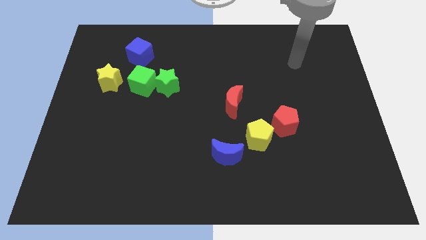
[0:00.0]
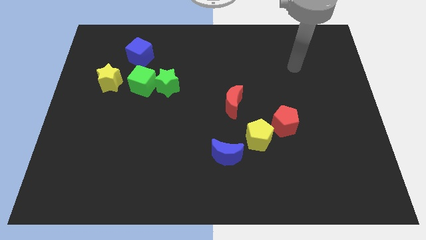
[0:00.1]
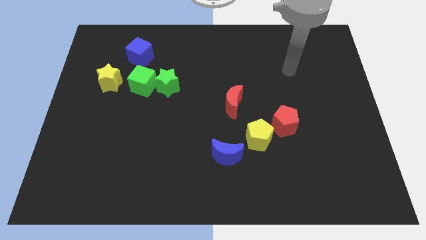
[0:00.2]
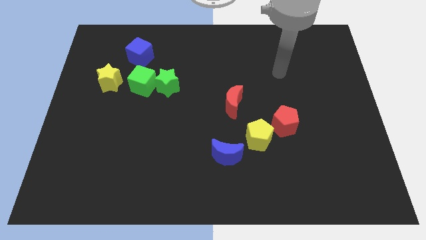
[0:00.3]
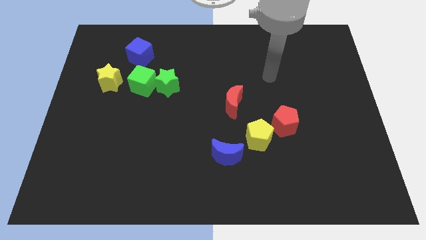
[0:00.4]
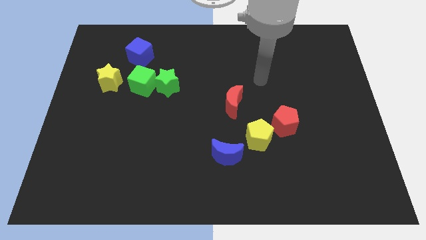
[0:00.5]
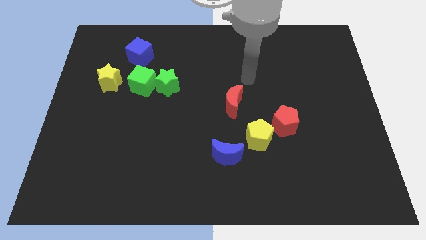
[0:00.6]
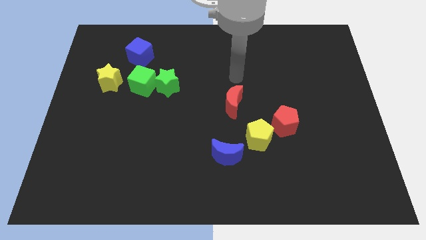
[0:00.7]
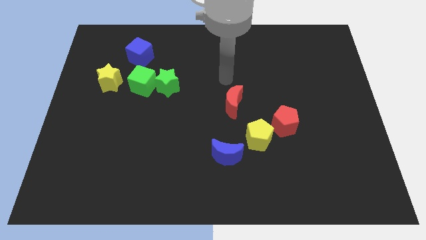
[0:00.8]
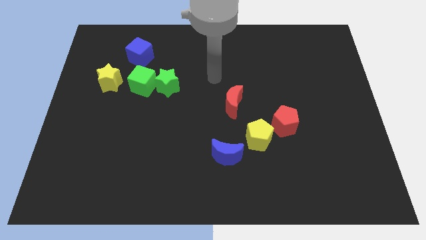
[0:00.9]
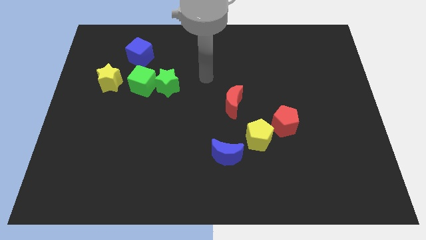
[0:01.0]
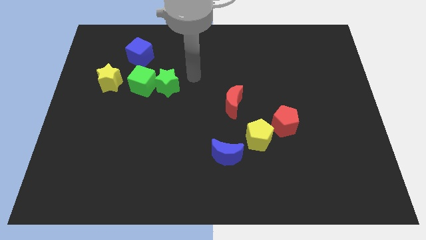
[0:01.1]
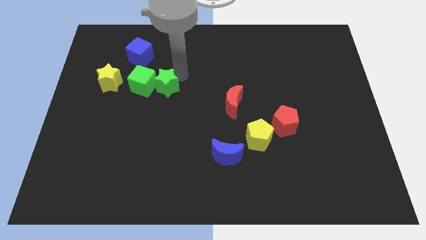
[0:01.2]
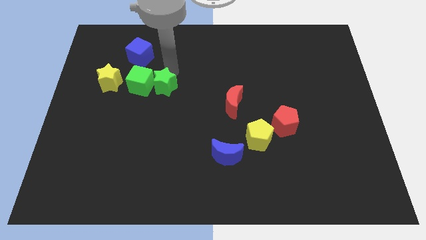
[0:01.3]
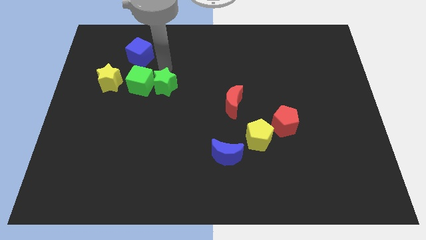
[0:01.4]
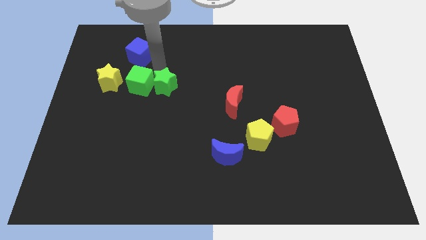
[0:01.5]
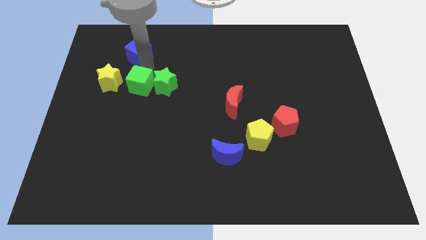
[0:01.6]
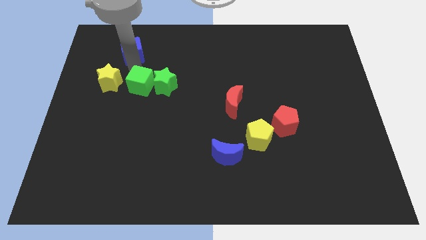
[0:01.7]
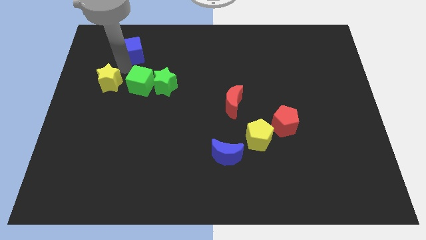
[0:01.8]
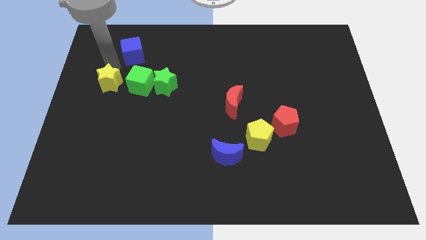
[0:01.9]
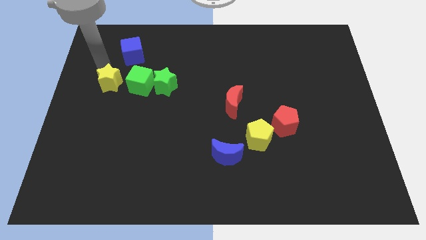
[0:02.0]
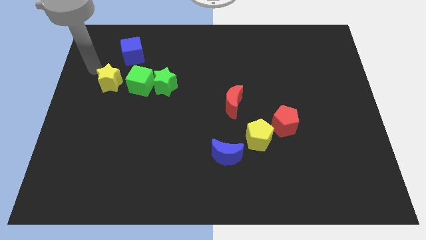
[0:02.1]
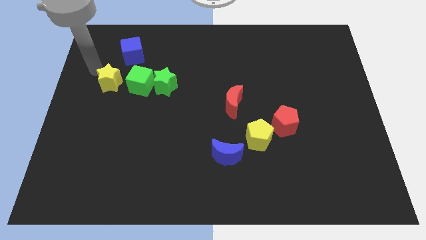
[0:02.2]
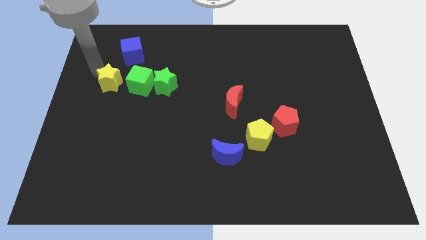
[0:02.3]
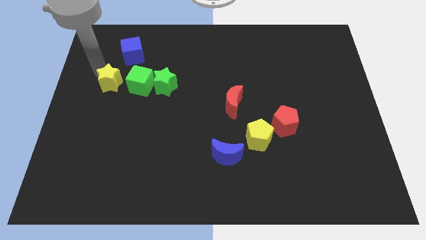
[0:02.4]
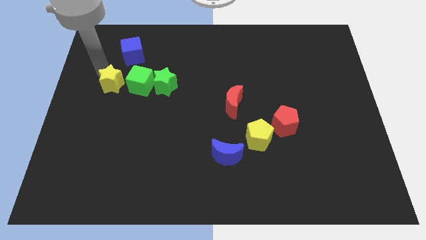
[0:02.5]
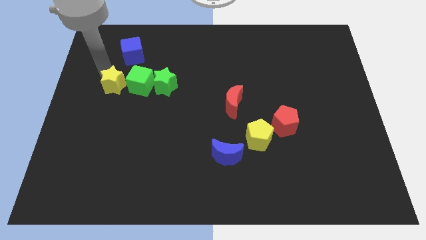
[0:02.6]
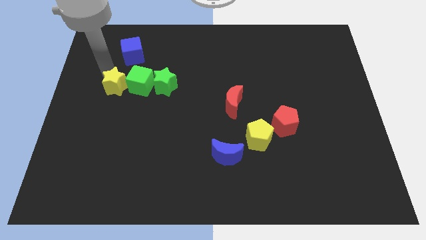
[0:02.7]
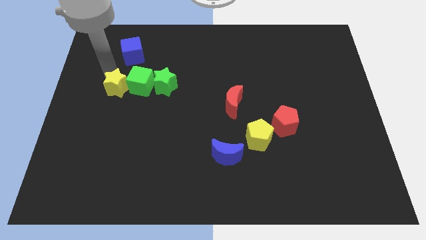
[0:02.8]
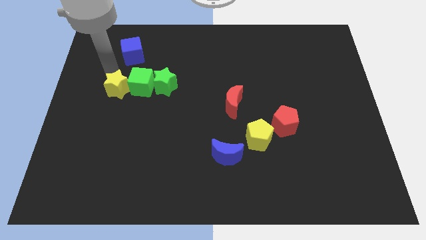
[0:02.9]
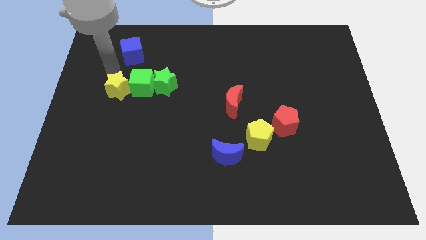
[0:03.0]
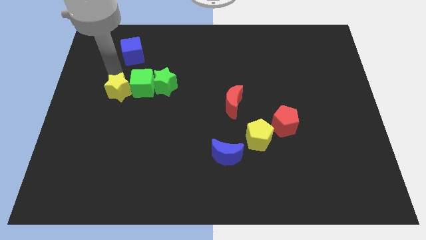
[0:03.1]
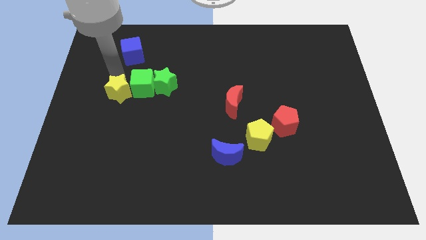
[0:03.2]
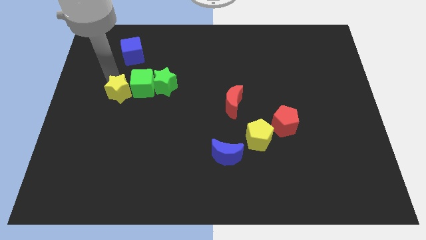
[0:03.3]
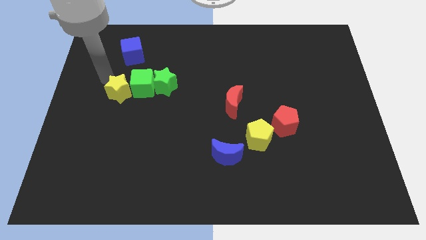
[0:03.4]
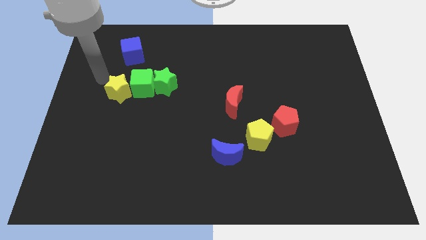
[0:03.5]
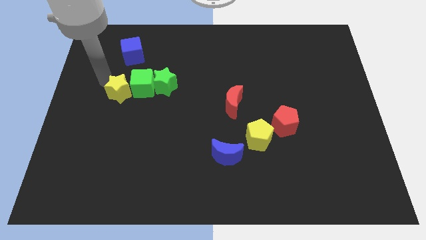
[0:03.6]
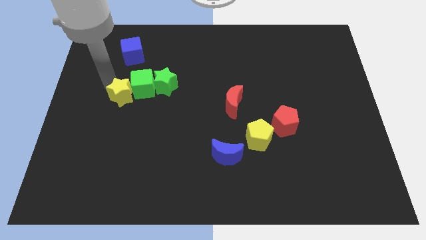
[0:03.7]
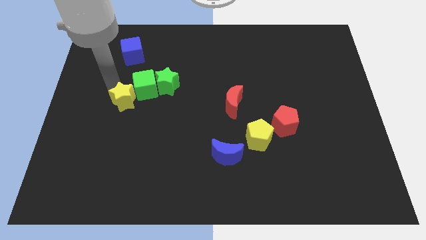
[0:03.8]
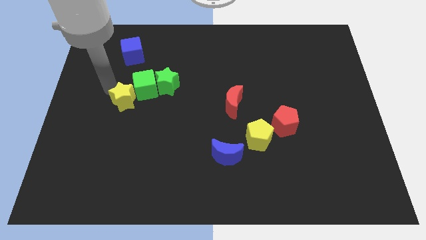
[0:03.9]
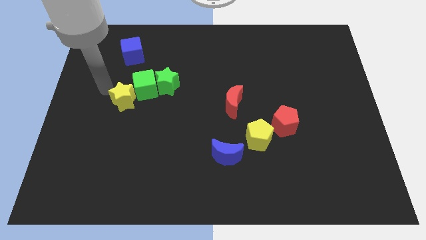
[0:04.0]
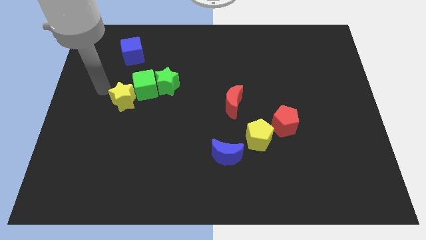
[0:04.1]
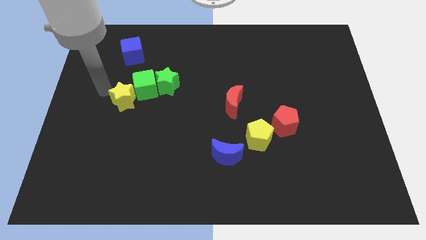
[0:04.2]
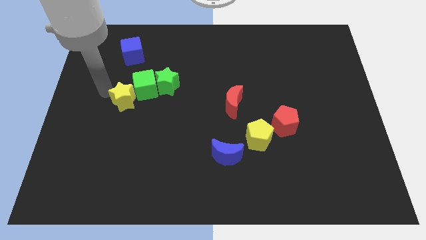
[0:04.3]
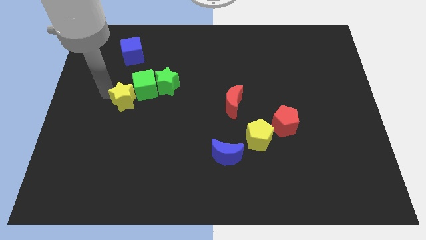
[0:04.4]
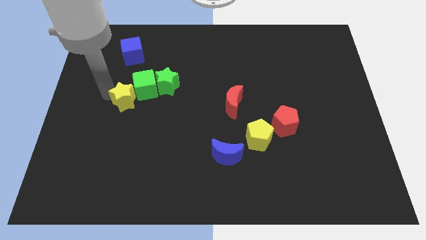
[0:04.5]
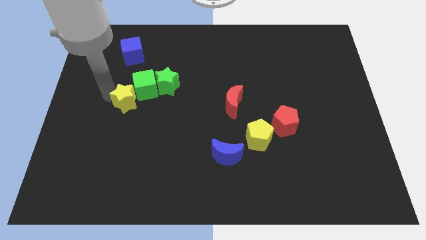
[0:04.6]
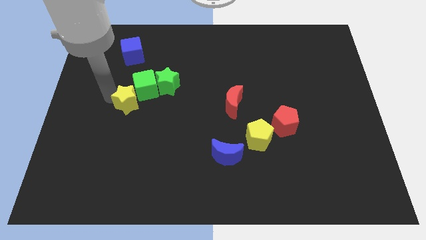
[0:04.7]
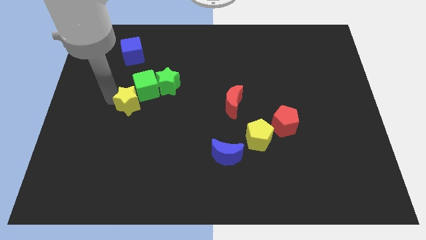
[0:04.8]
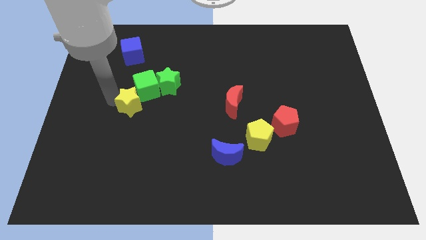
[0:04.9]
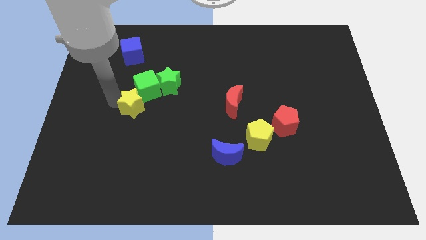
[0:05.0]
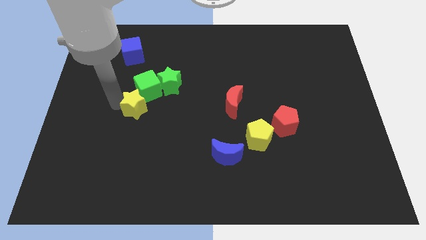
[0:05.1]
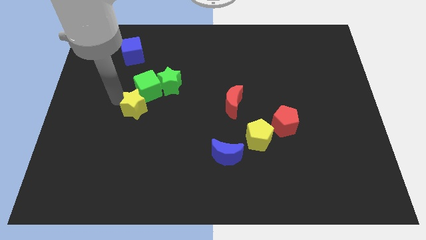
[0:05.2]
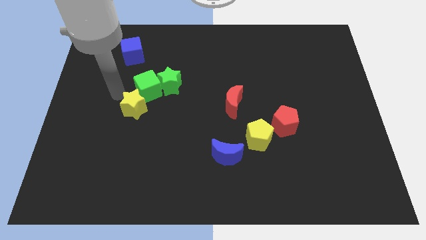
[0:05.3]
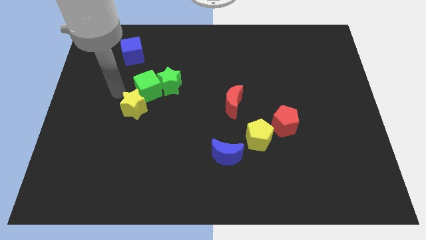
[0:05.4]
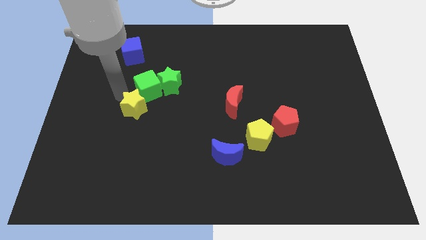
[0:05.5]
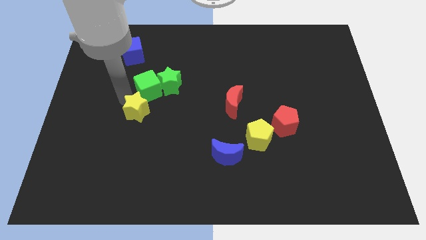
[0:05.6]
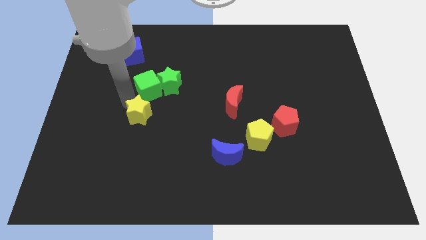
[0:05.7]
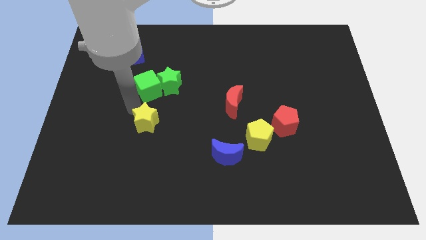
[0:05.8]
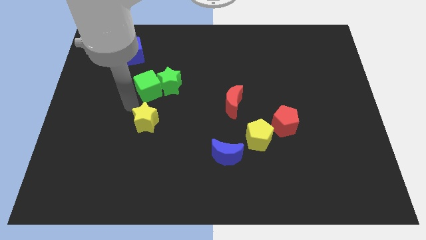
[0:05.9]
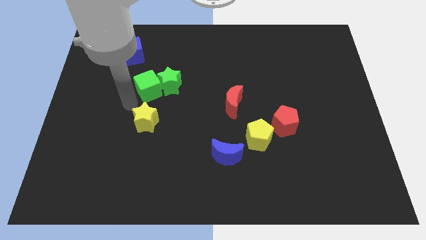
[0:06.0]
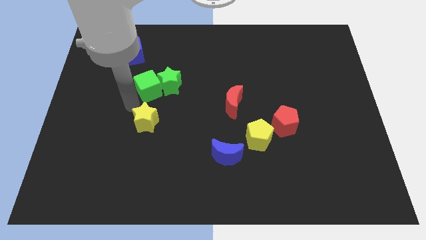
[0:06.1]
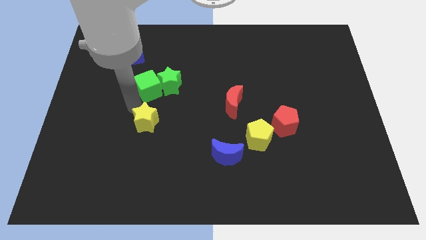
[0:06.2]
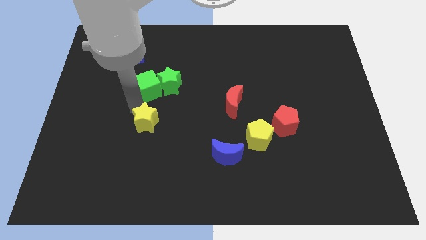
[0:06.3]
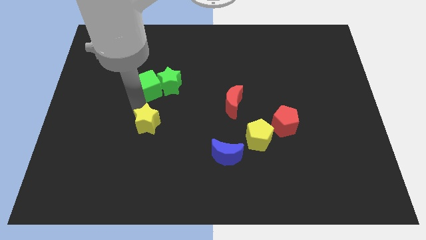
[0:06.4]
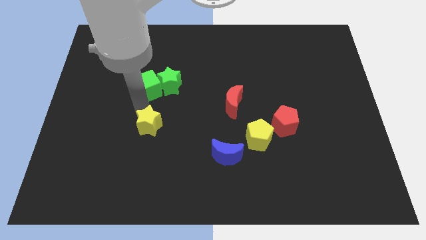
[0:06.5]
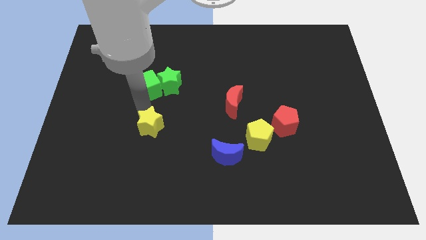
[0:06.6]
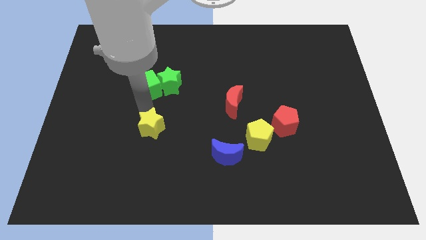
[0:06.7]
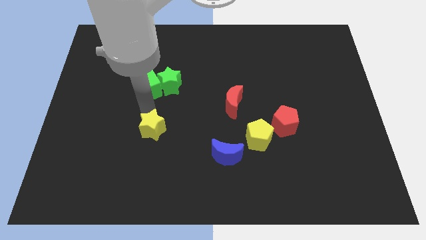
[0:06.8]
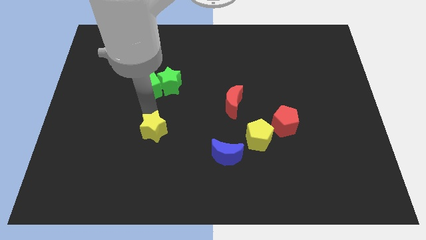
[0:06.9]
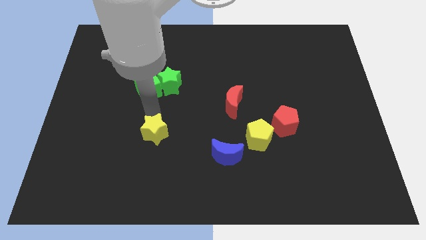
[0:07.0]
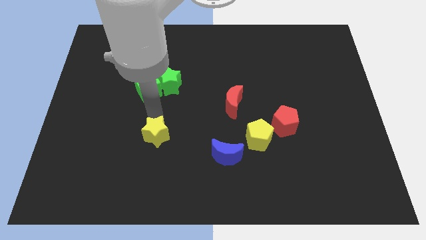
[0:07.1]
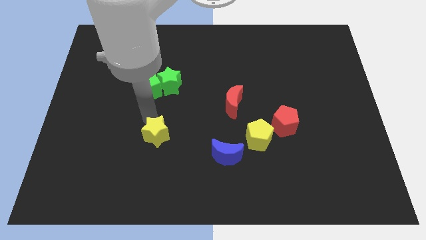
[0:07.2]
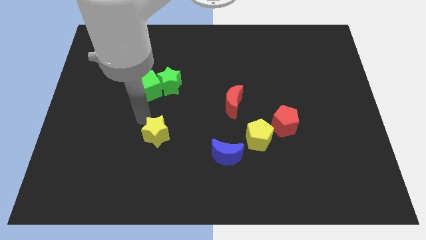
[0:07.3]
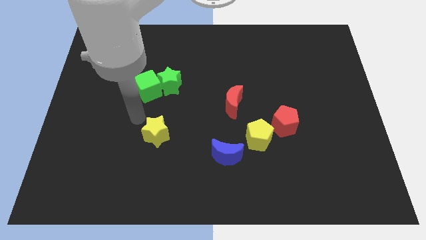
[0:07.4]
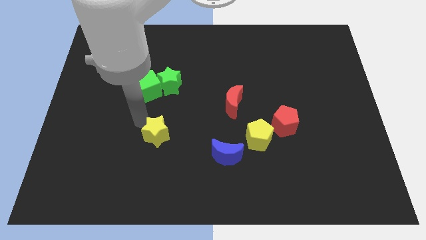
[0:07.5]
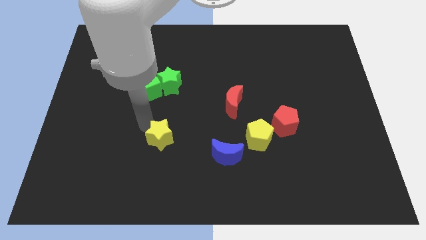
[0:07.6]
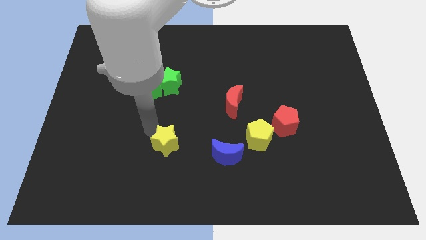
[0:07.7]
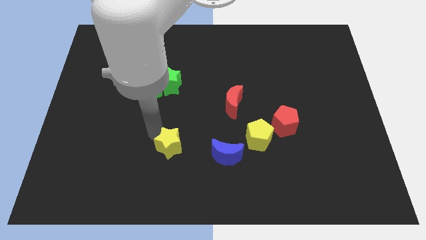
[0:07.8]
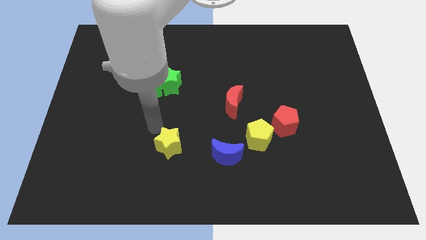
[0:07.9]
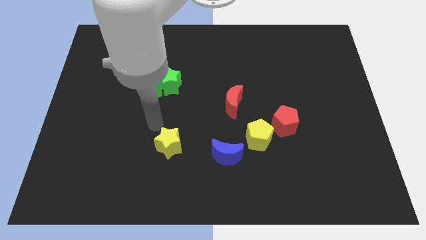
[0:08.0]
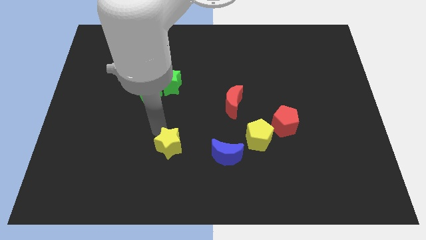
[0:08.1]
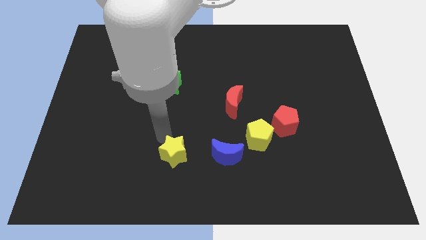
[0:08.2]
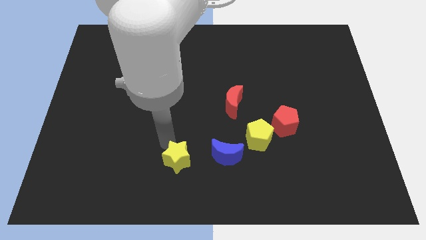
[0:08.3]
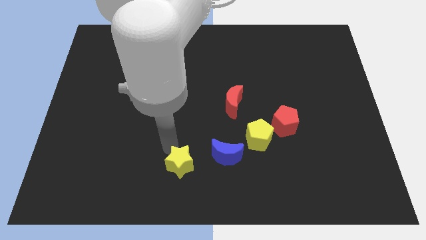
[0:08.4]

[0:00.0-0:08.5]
move the yellow star to the bottom
